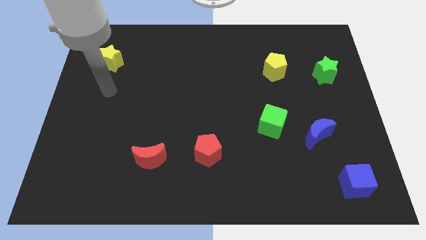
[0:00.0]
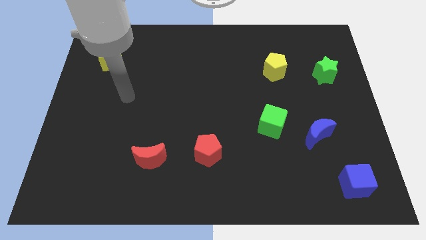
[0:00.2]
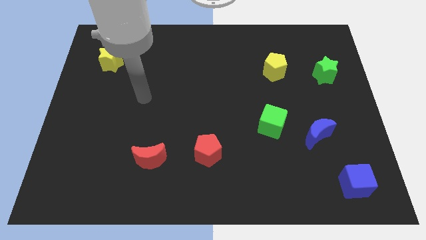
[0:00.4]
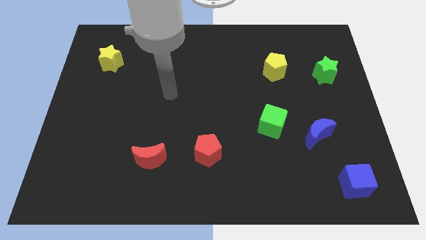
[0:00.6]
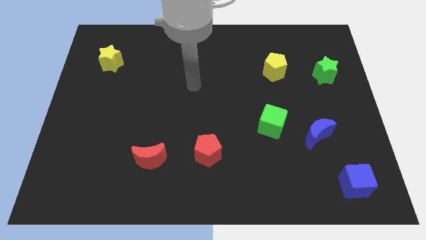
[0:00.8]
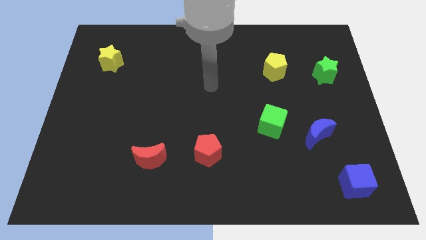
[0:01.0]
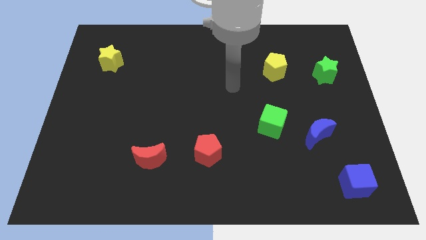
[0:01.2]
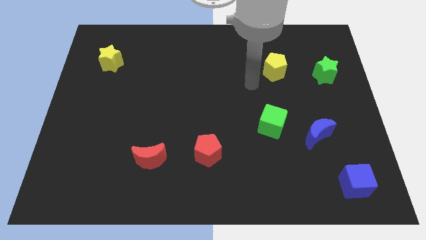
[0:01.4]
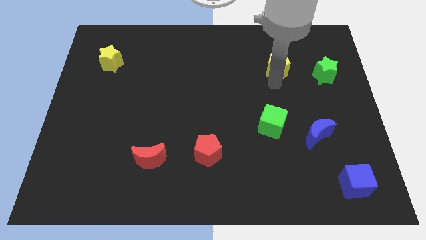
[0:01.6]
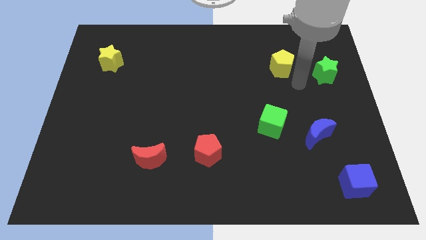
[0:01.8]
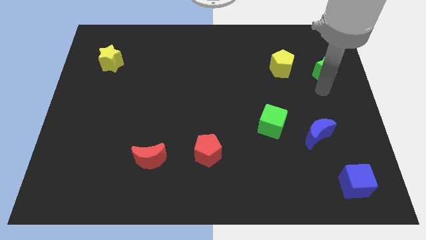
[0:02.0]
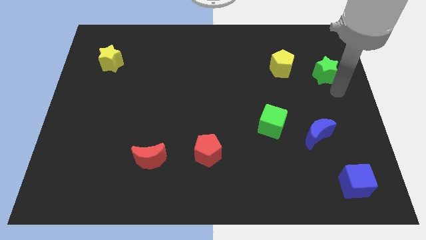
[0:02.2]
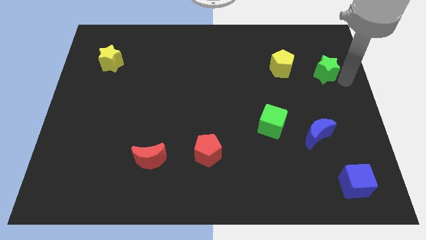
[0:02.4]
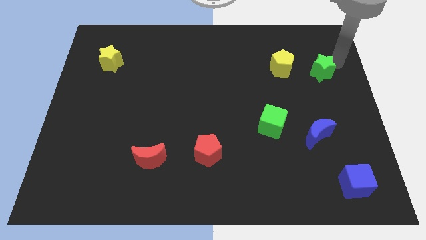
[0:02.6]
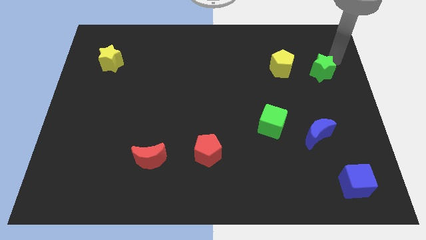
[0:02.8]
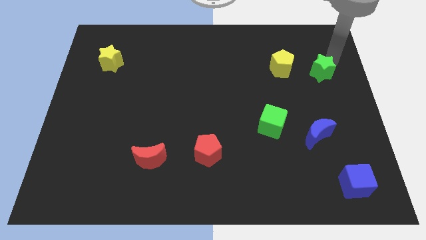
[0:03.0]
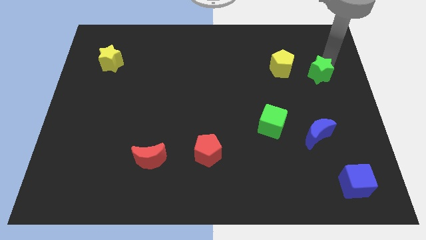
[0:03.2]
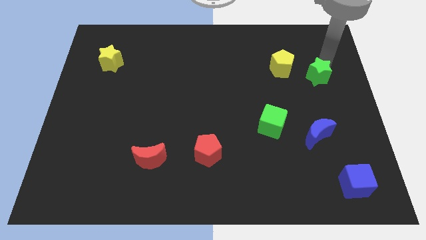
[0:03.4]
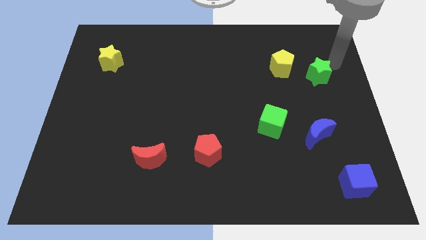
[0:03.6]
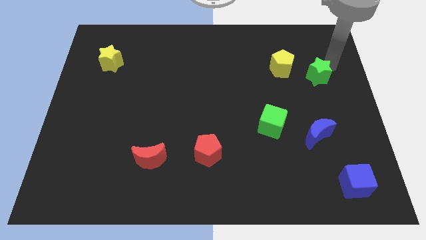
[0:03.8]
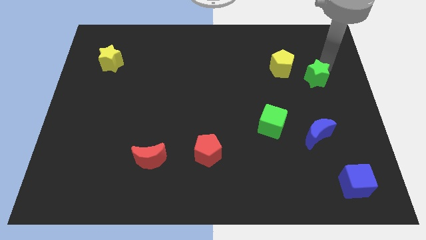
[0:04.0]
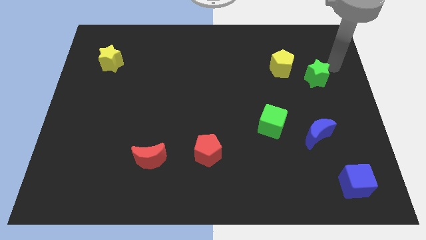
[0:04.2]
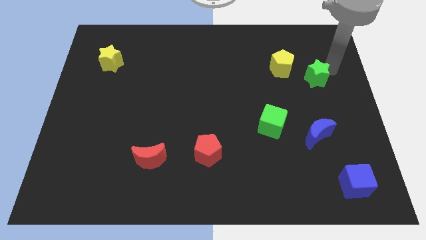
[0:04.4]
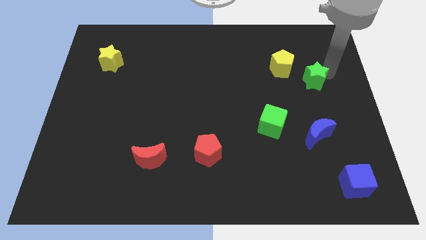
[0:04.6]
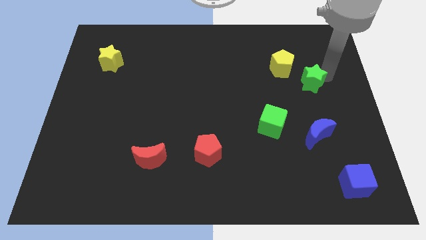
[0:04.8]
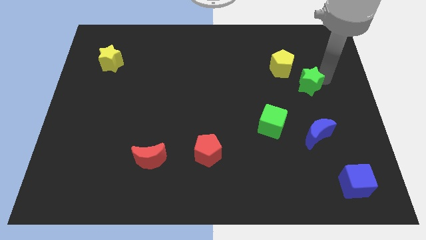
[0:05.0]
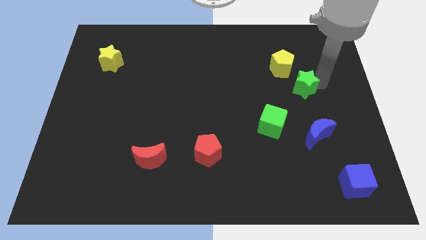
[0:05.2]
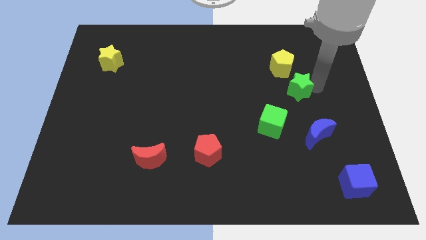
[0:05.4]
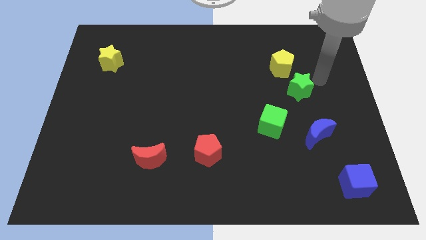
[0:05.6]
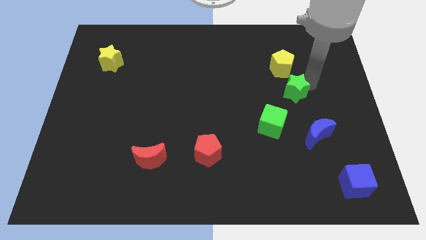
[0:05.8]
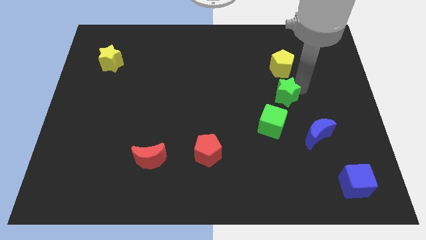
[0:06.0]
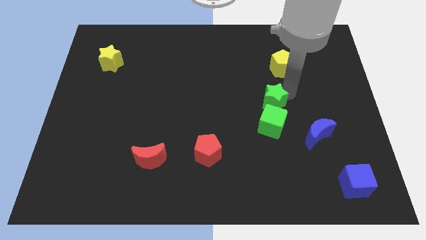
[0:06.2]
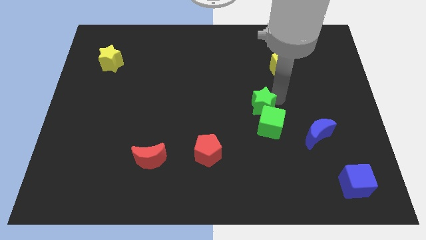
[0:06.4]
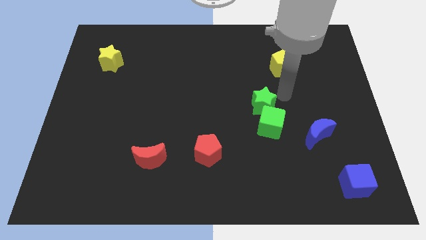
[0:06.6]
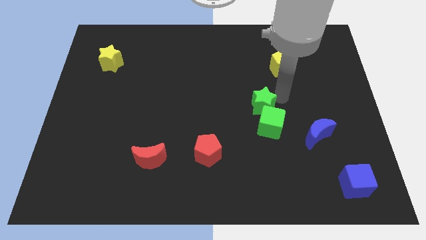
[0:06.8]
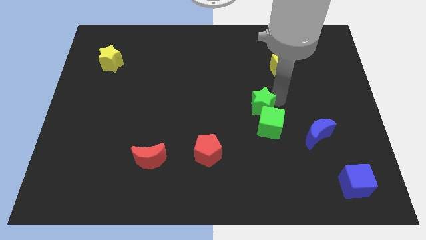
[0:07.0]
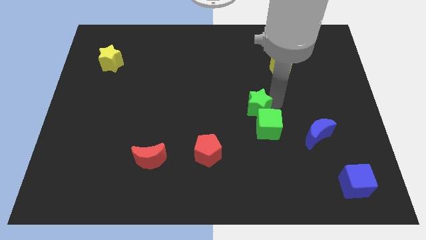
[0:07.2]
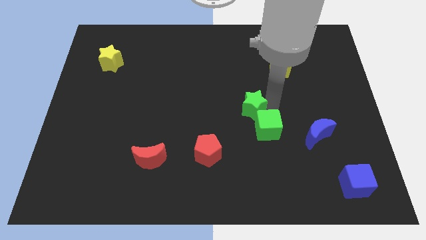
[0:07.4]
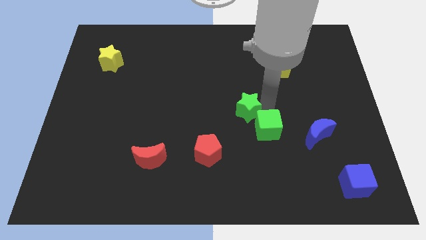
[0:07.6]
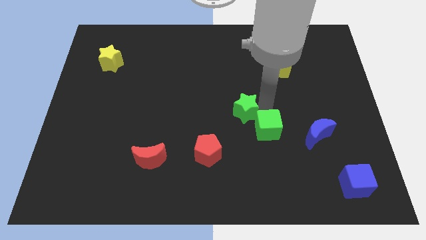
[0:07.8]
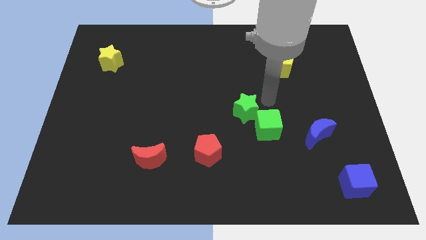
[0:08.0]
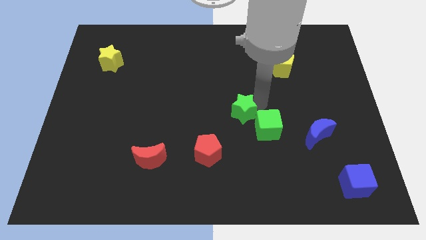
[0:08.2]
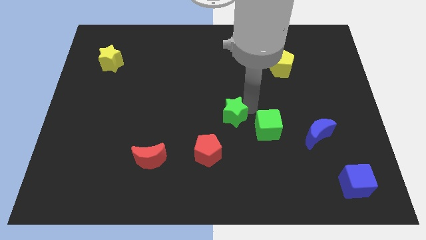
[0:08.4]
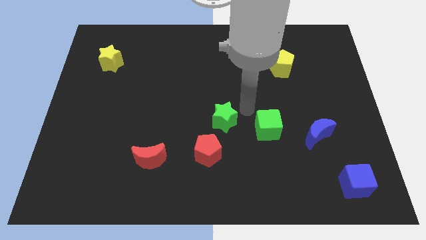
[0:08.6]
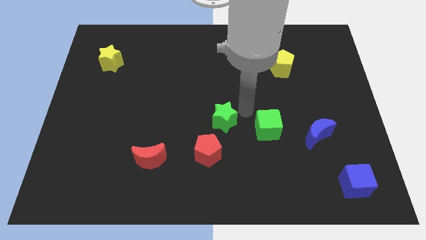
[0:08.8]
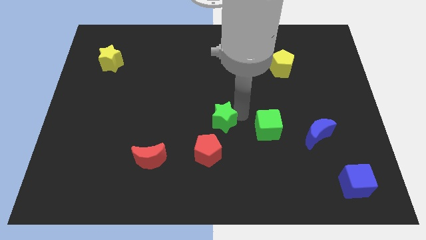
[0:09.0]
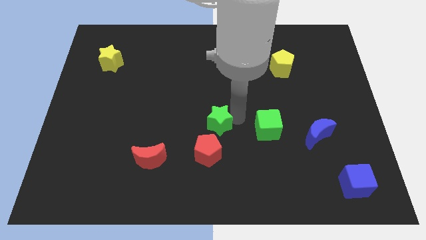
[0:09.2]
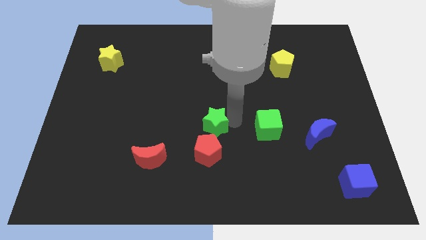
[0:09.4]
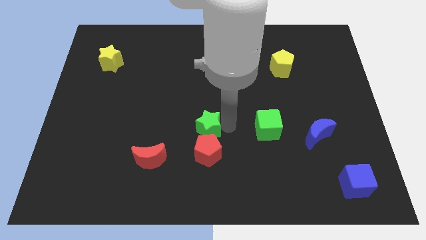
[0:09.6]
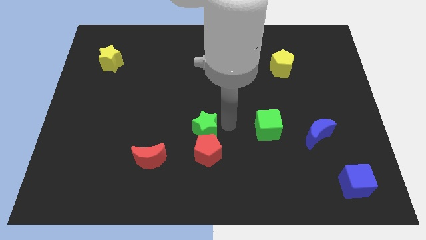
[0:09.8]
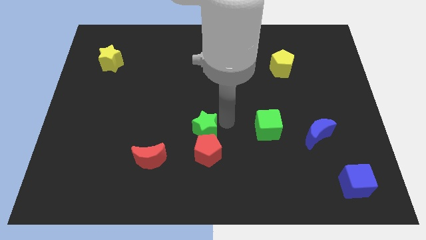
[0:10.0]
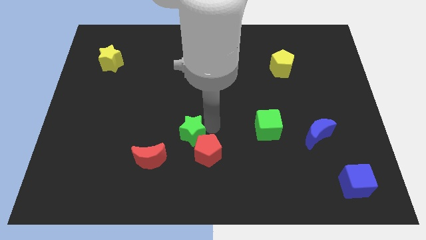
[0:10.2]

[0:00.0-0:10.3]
move the green star to the top right side of the red moon

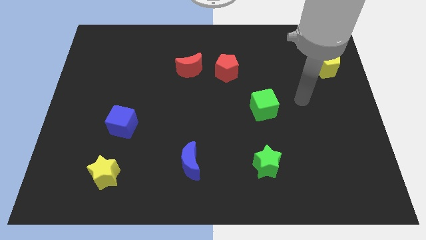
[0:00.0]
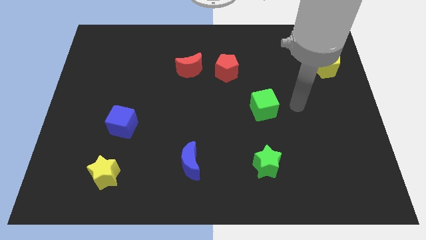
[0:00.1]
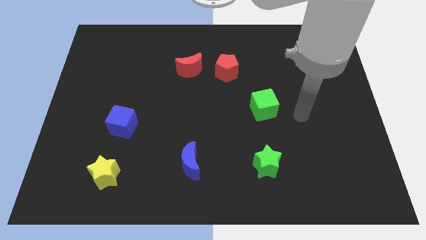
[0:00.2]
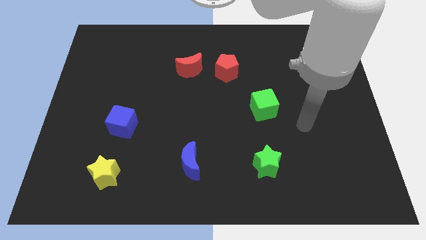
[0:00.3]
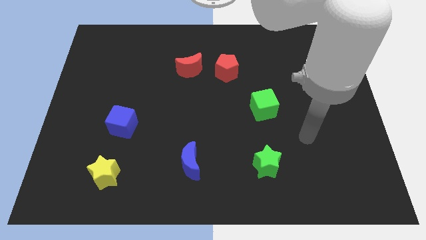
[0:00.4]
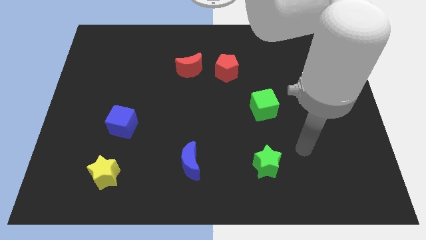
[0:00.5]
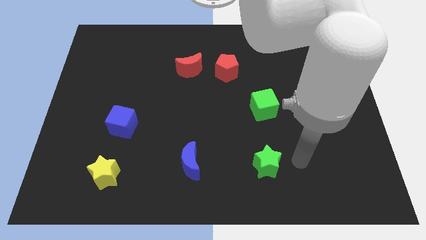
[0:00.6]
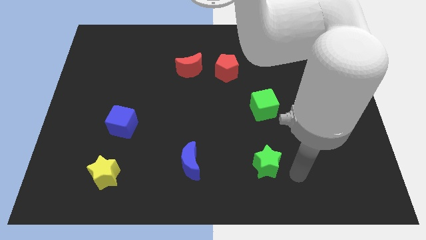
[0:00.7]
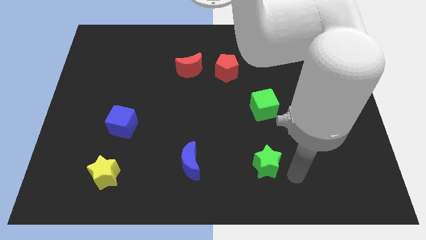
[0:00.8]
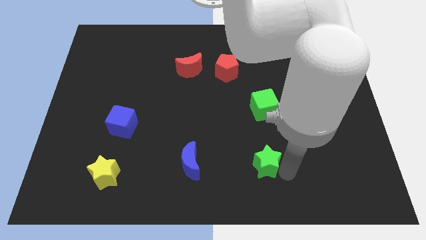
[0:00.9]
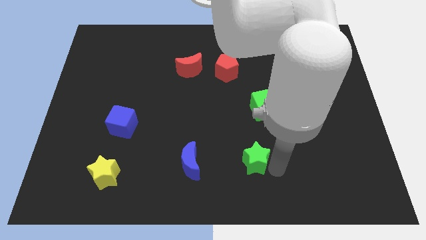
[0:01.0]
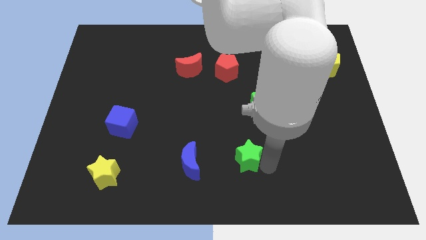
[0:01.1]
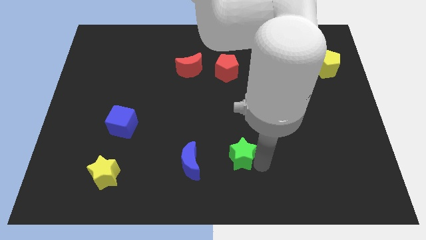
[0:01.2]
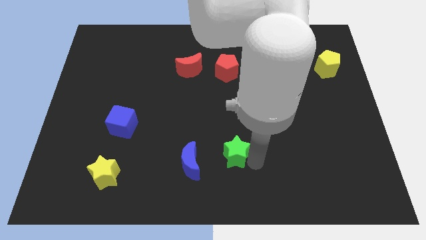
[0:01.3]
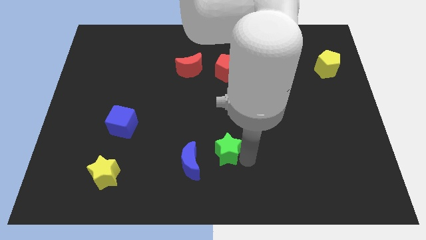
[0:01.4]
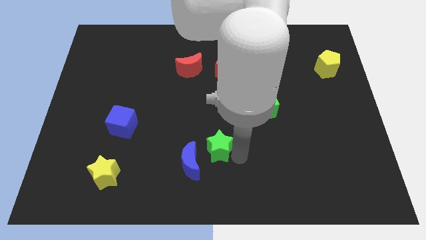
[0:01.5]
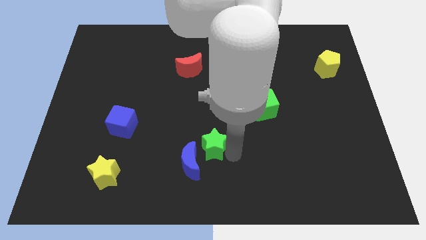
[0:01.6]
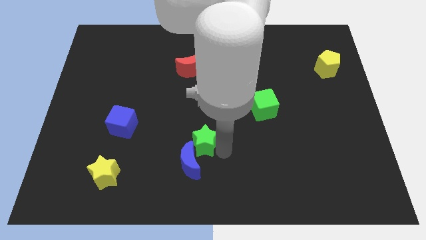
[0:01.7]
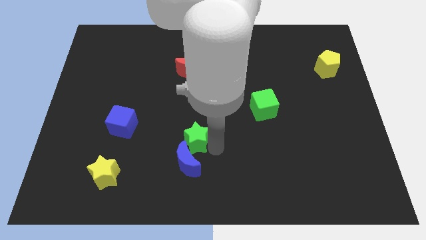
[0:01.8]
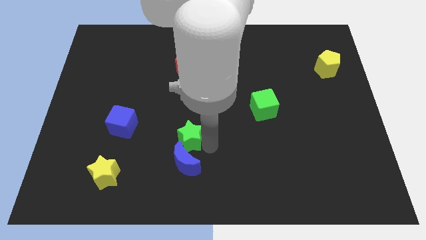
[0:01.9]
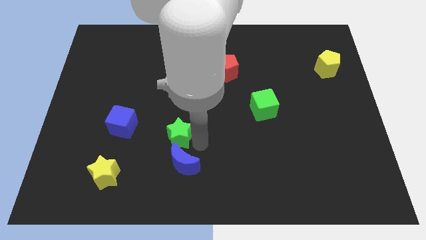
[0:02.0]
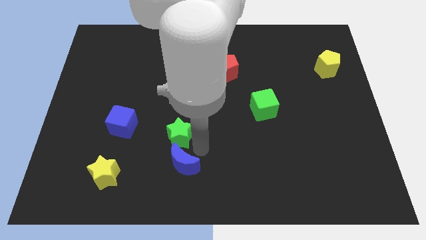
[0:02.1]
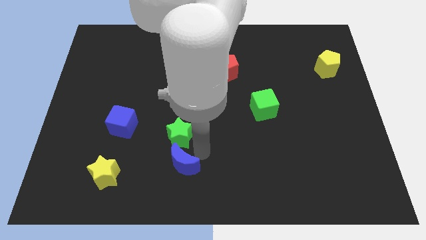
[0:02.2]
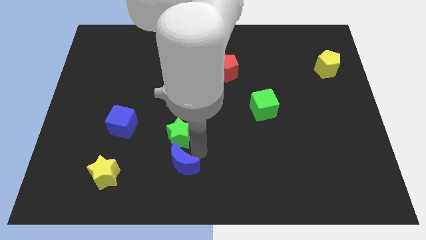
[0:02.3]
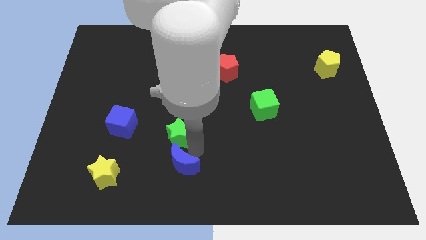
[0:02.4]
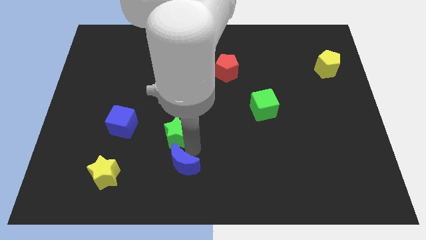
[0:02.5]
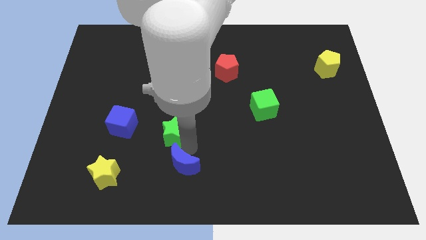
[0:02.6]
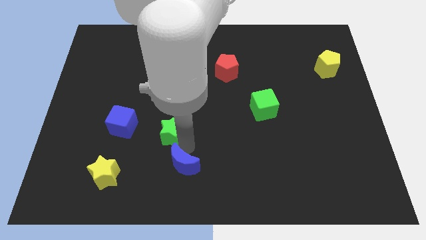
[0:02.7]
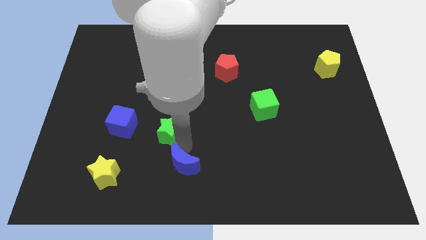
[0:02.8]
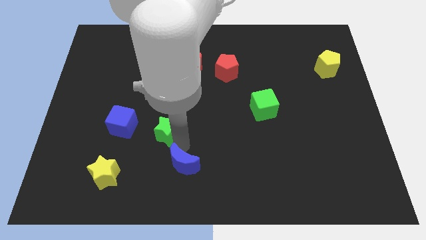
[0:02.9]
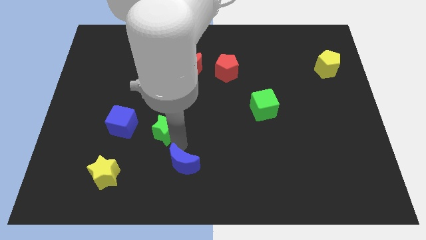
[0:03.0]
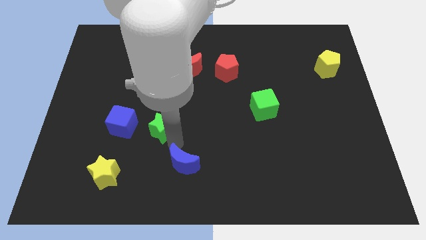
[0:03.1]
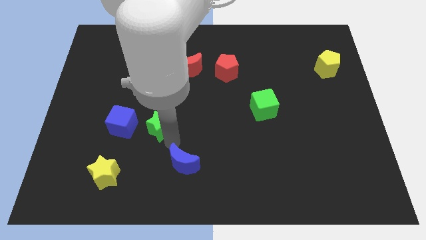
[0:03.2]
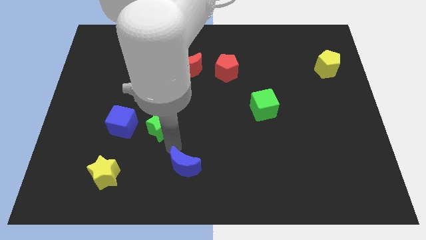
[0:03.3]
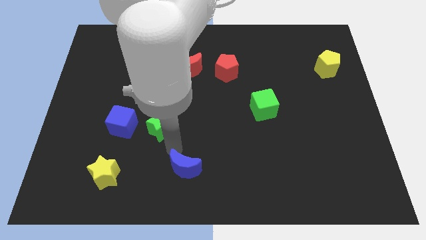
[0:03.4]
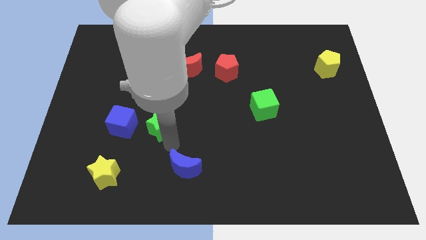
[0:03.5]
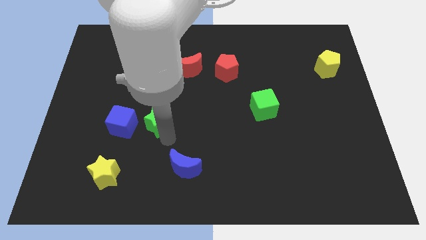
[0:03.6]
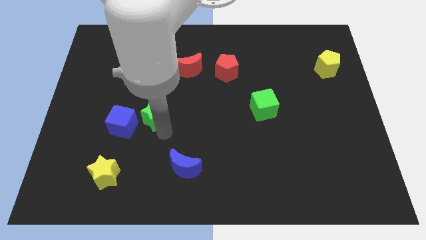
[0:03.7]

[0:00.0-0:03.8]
push the green star to the top right side of the blue cube
